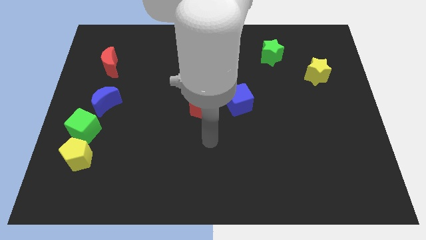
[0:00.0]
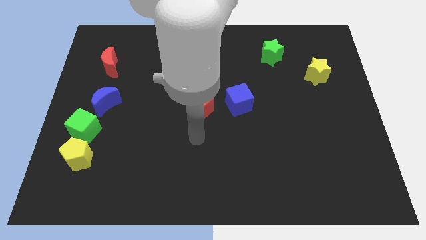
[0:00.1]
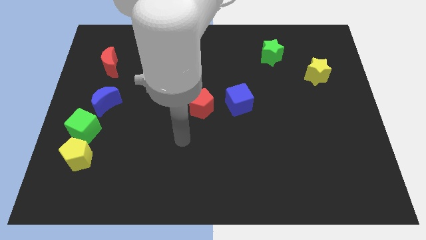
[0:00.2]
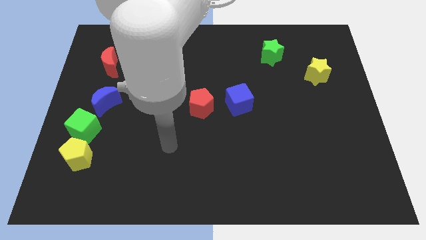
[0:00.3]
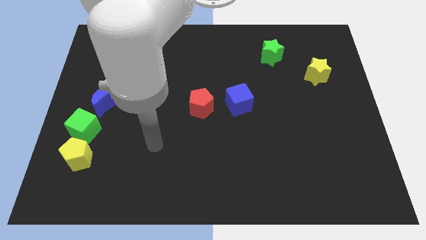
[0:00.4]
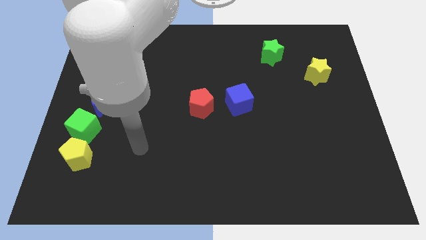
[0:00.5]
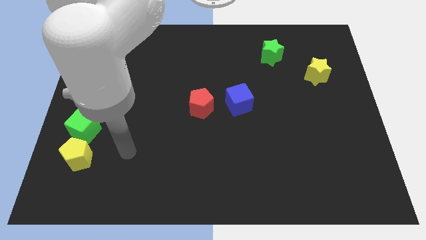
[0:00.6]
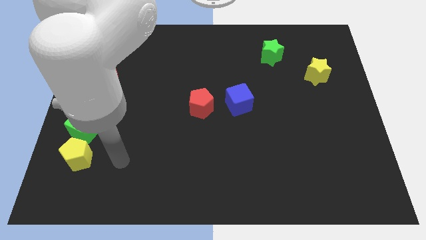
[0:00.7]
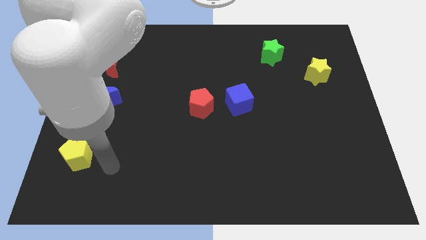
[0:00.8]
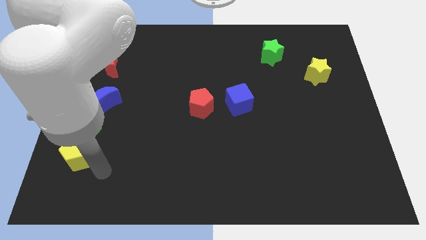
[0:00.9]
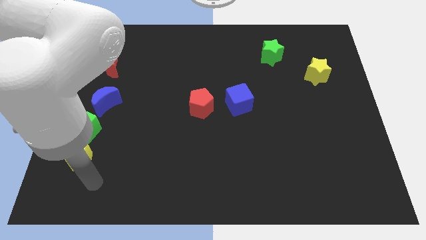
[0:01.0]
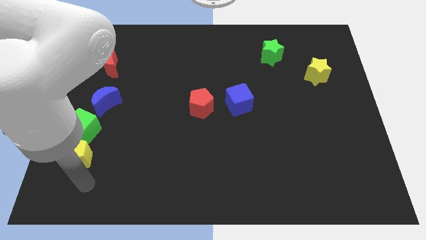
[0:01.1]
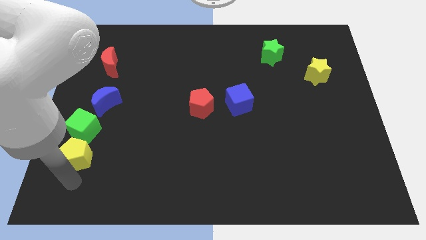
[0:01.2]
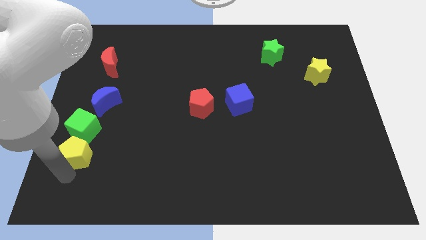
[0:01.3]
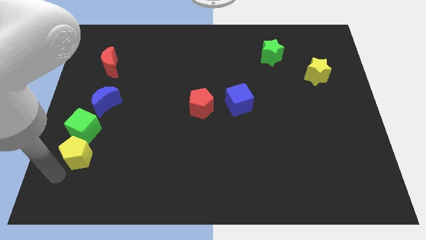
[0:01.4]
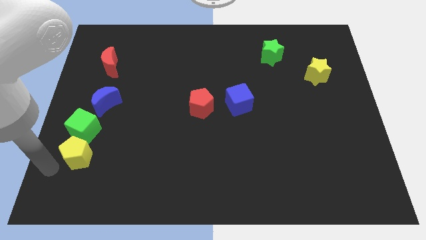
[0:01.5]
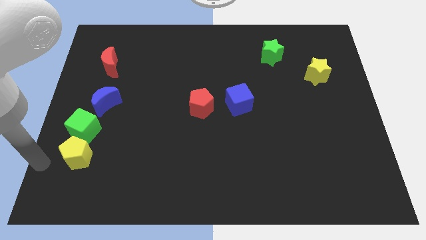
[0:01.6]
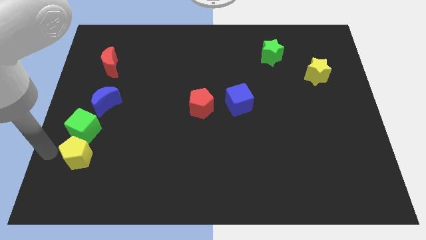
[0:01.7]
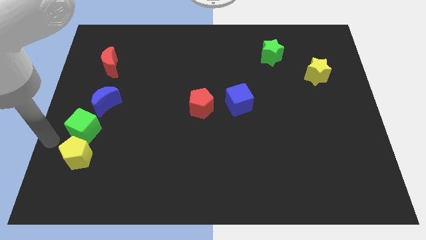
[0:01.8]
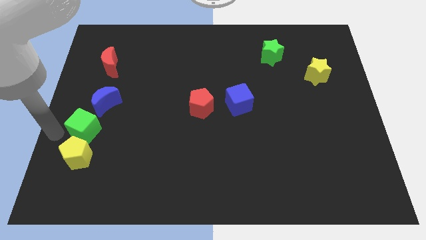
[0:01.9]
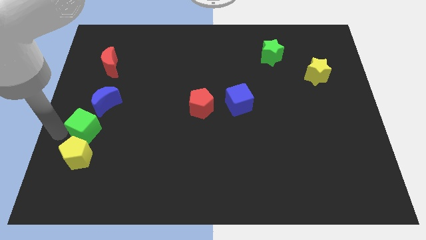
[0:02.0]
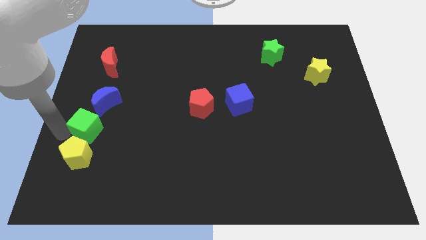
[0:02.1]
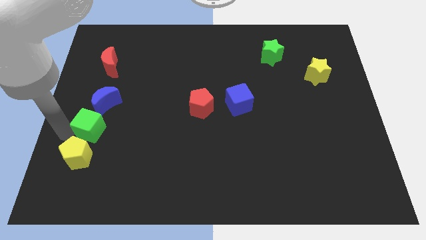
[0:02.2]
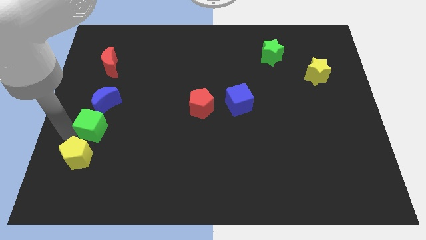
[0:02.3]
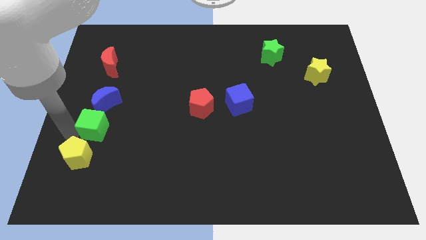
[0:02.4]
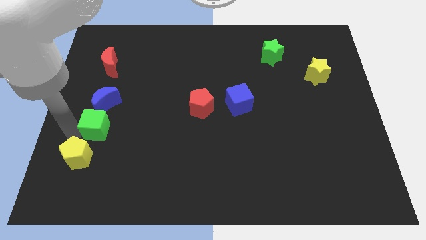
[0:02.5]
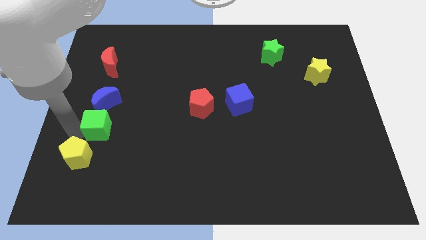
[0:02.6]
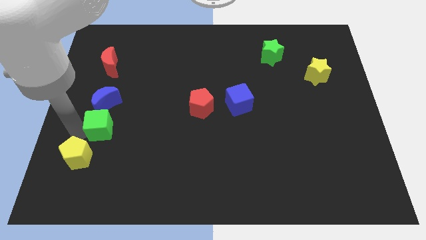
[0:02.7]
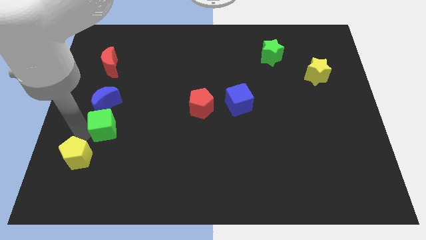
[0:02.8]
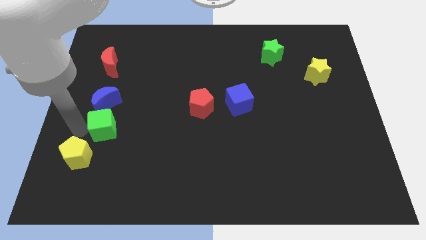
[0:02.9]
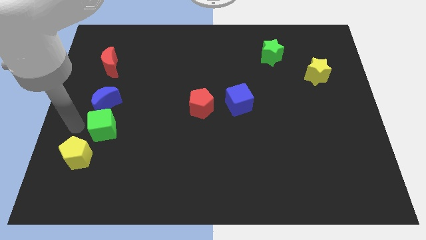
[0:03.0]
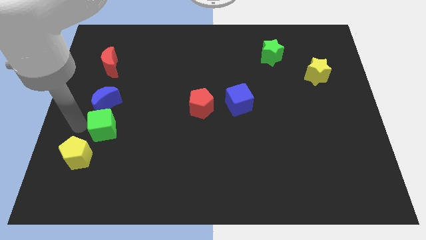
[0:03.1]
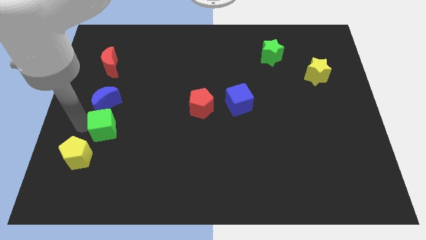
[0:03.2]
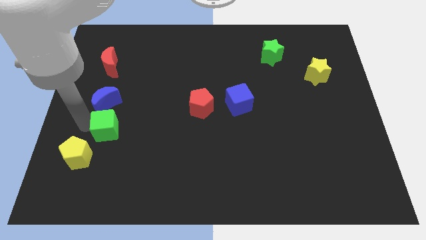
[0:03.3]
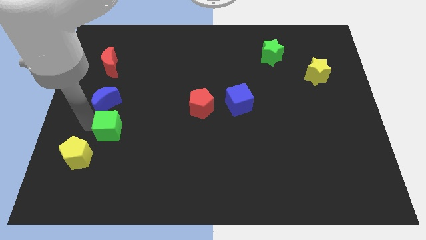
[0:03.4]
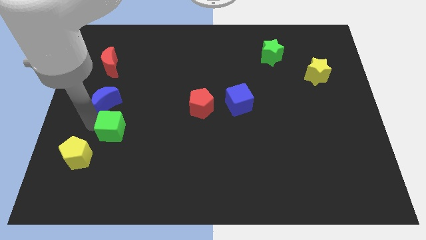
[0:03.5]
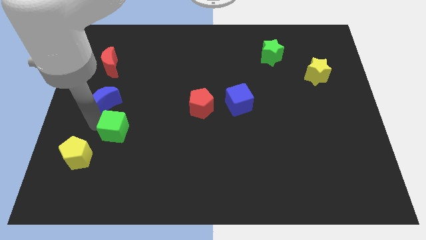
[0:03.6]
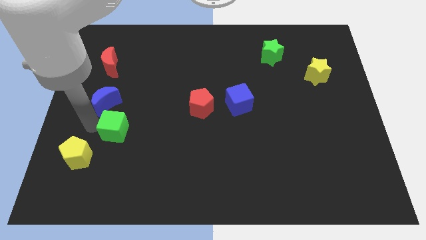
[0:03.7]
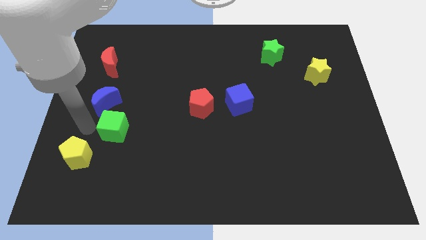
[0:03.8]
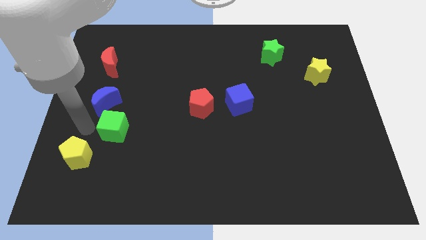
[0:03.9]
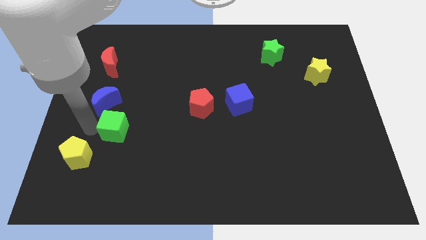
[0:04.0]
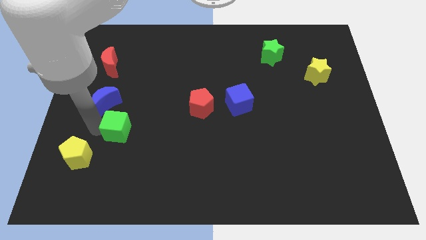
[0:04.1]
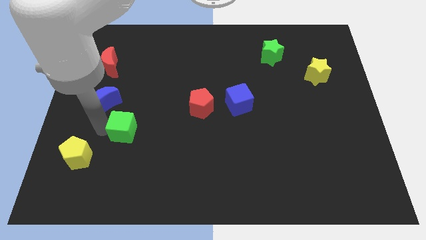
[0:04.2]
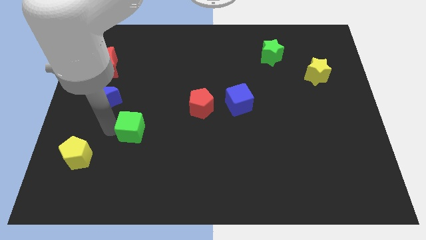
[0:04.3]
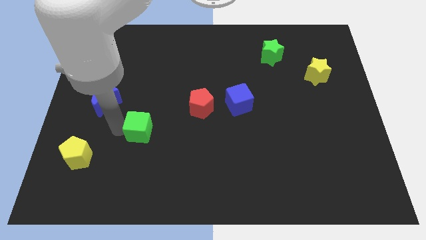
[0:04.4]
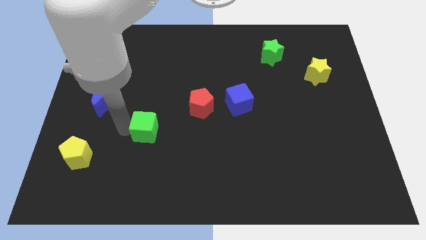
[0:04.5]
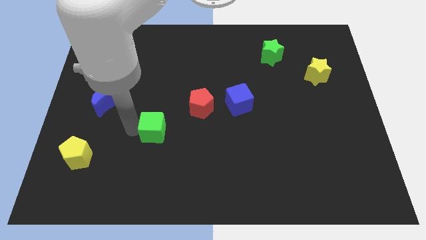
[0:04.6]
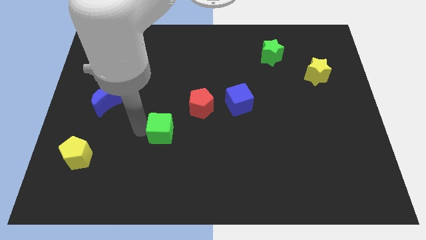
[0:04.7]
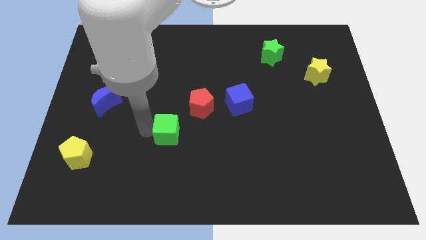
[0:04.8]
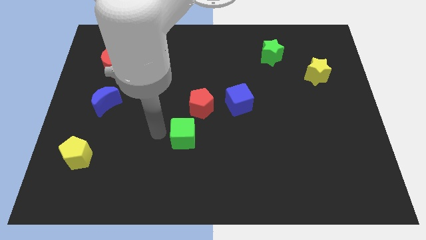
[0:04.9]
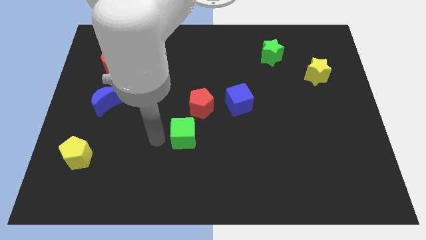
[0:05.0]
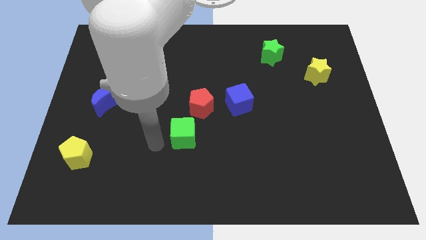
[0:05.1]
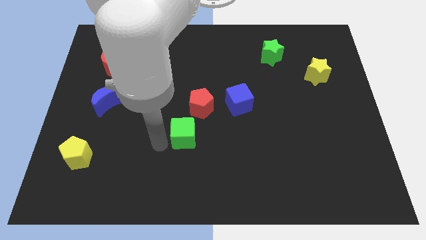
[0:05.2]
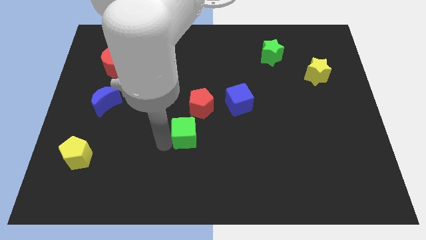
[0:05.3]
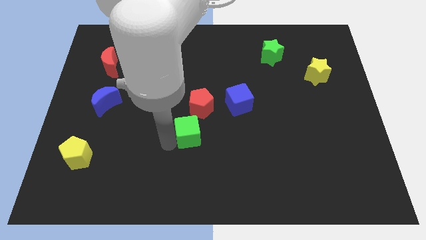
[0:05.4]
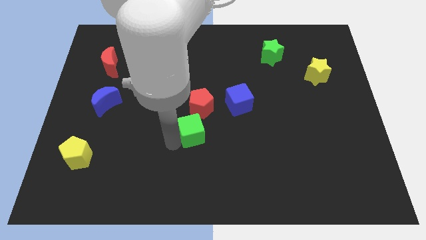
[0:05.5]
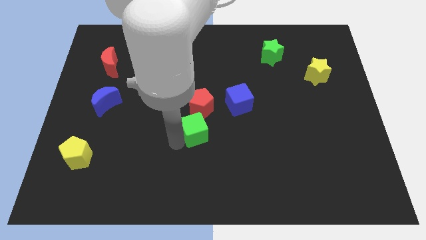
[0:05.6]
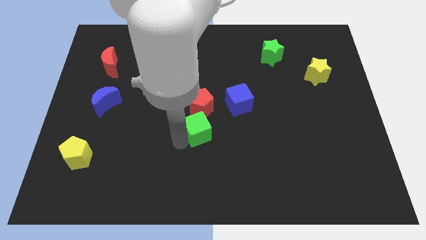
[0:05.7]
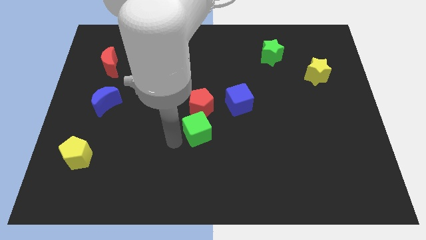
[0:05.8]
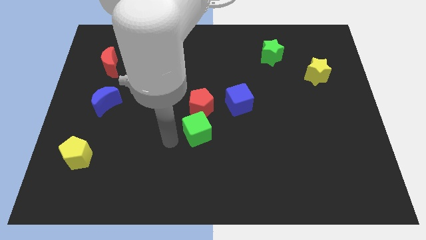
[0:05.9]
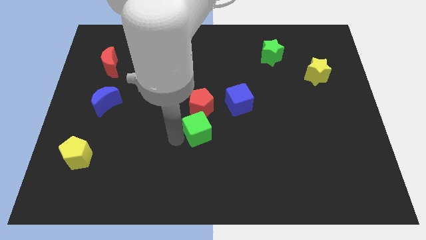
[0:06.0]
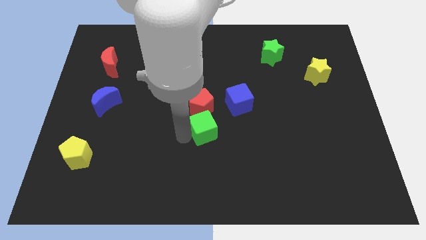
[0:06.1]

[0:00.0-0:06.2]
move the green cube to the bottom right of the red pentagon
